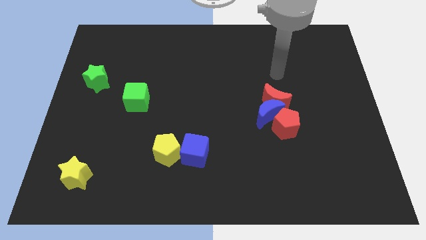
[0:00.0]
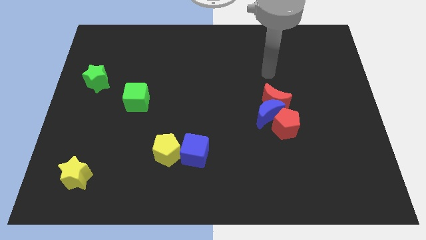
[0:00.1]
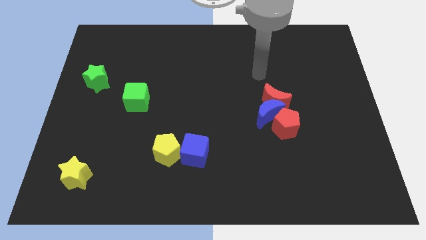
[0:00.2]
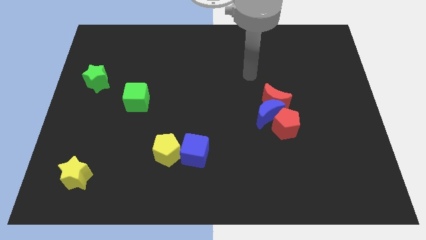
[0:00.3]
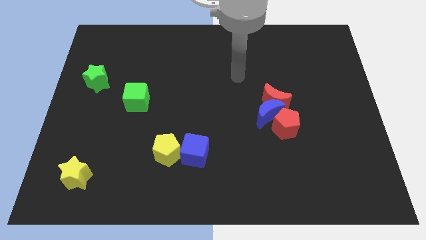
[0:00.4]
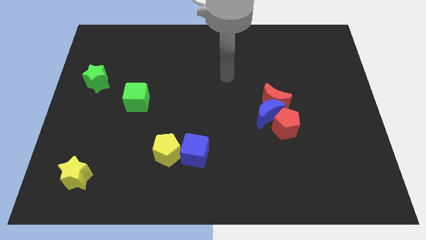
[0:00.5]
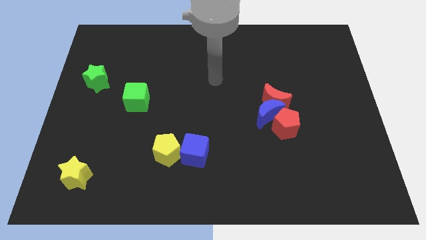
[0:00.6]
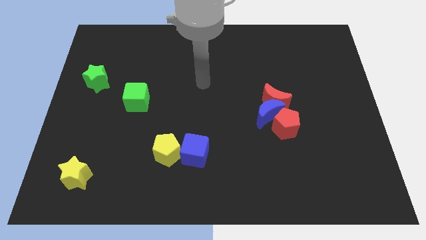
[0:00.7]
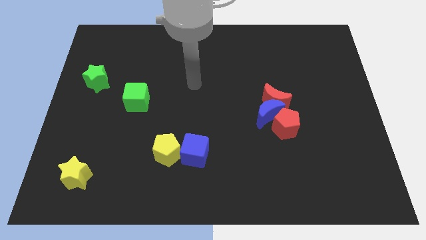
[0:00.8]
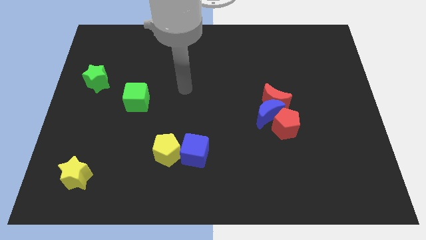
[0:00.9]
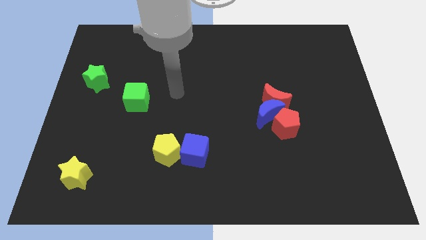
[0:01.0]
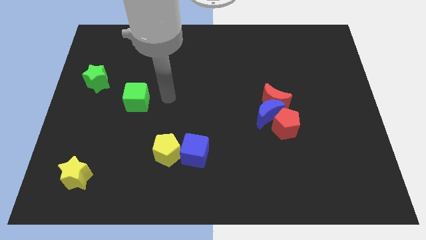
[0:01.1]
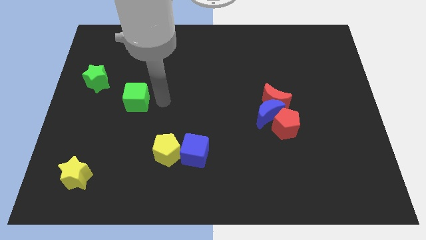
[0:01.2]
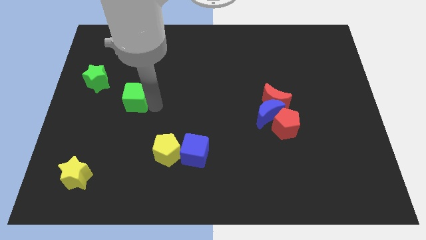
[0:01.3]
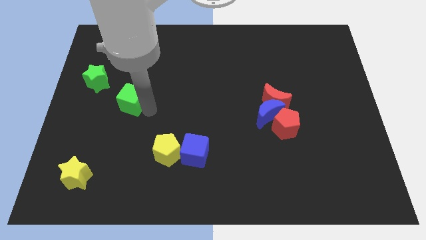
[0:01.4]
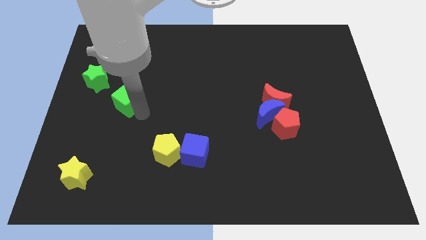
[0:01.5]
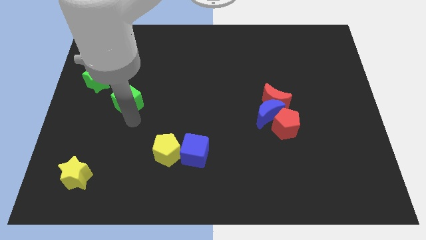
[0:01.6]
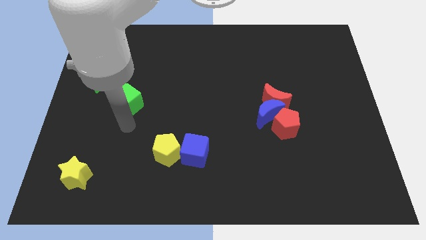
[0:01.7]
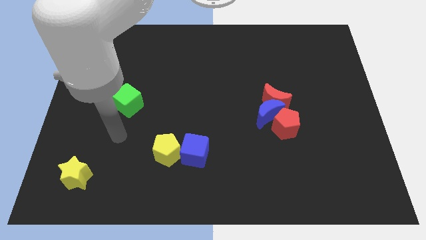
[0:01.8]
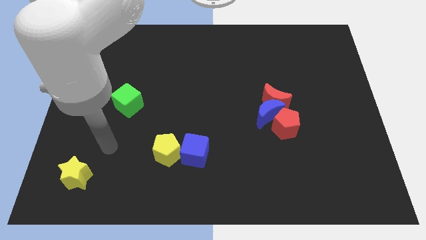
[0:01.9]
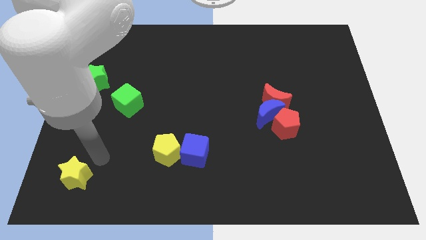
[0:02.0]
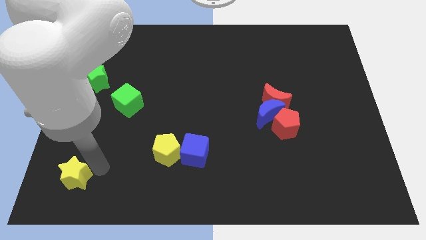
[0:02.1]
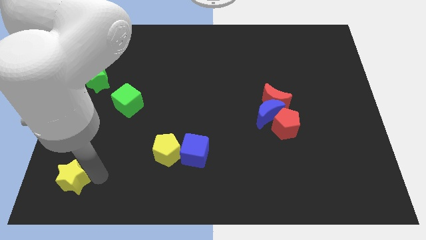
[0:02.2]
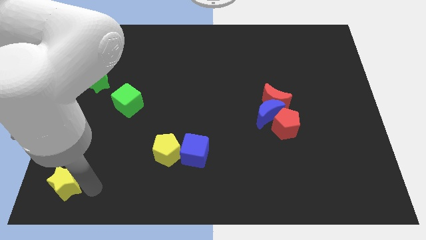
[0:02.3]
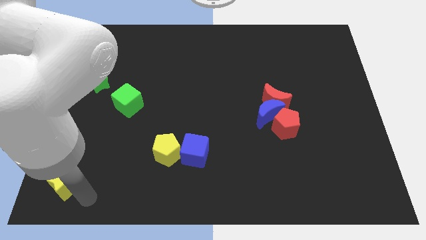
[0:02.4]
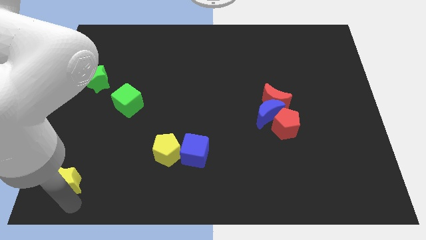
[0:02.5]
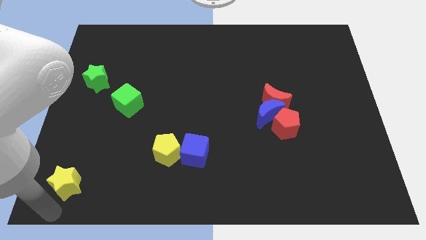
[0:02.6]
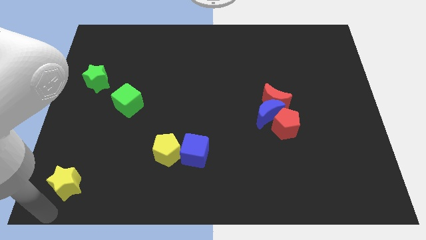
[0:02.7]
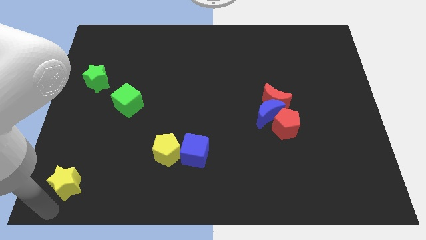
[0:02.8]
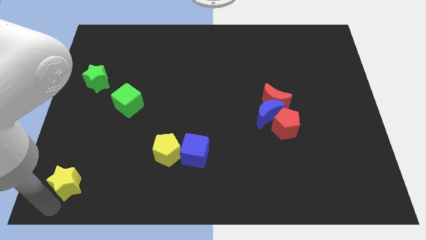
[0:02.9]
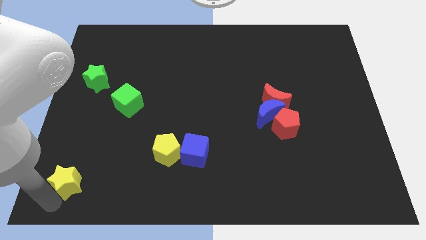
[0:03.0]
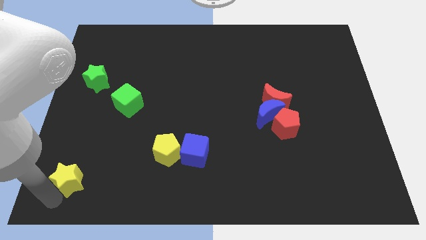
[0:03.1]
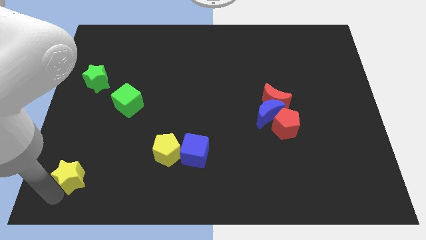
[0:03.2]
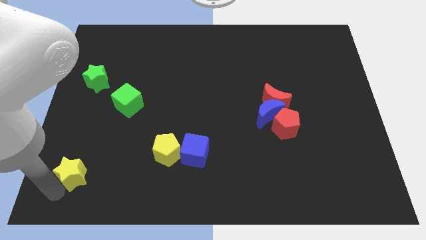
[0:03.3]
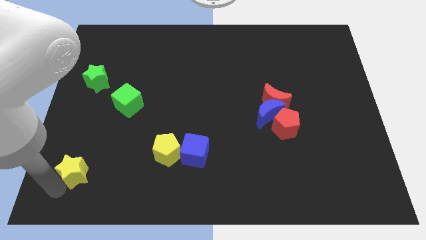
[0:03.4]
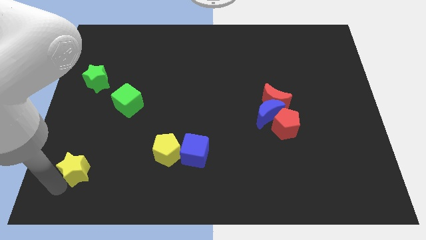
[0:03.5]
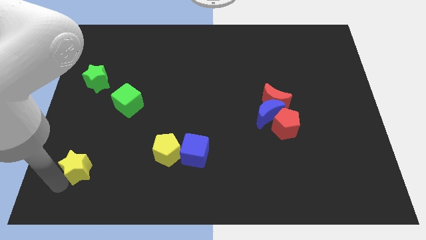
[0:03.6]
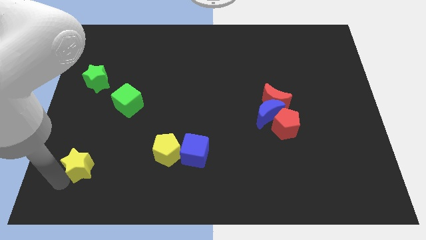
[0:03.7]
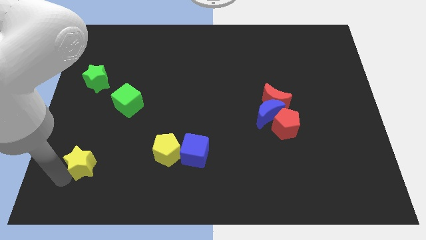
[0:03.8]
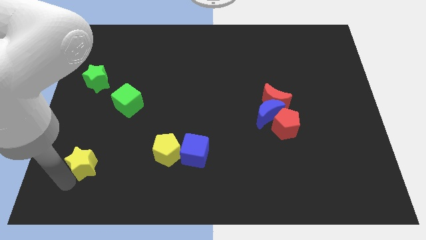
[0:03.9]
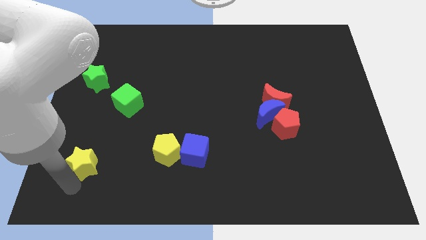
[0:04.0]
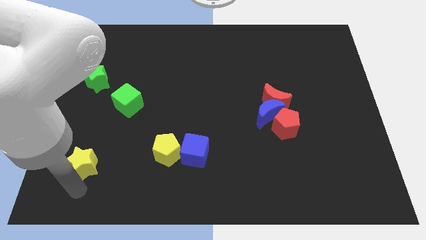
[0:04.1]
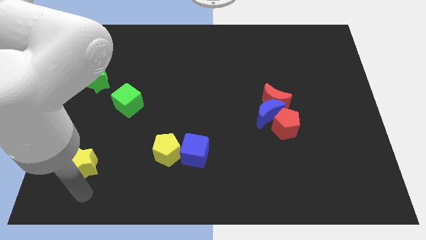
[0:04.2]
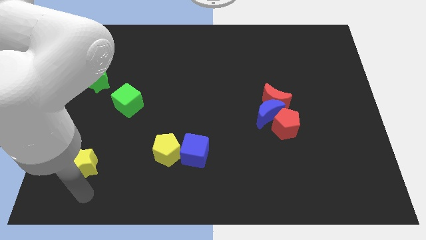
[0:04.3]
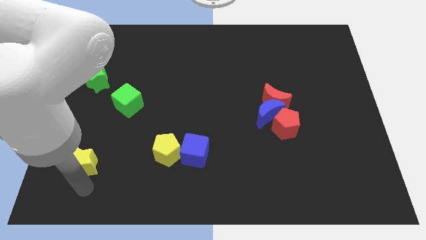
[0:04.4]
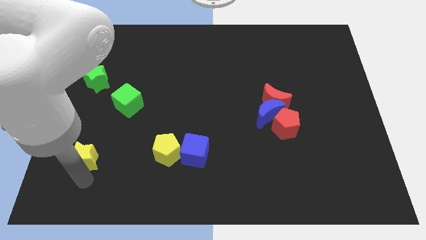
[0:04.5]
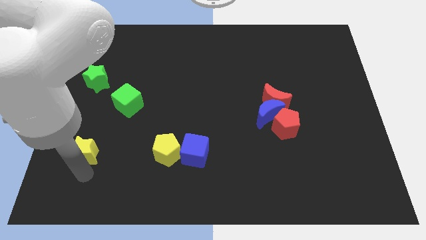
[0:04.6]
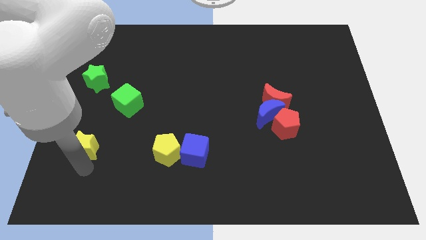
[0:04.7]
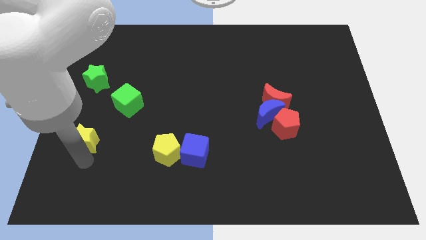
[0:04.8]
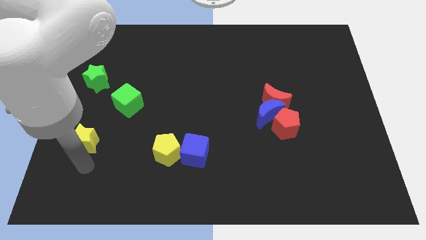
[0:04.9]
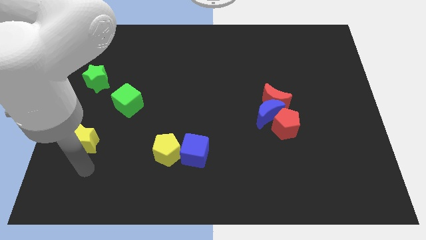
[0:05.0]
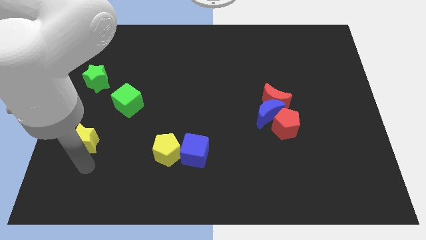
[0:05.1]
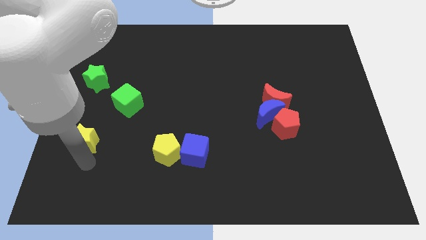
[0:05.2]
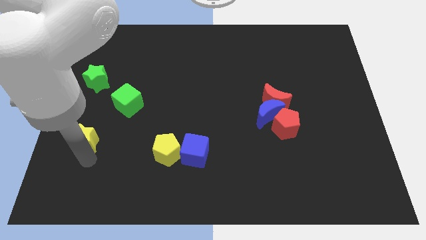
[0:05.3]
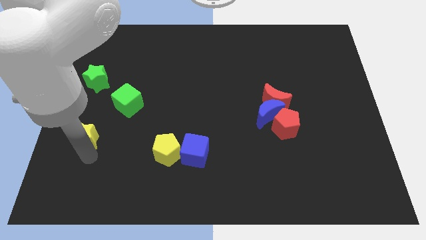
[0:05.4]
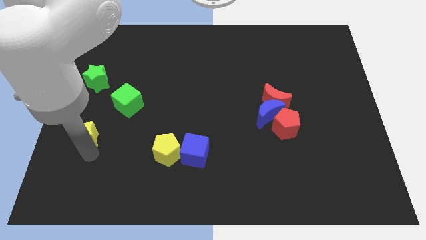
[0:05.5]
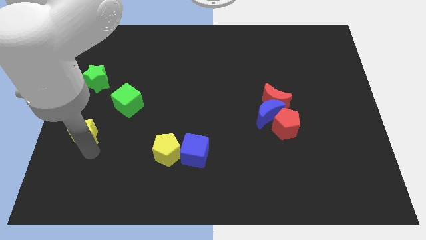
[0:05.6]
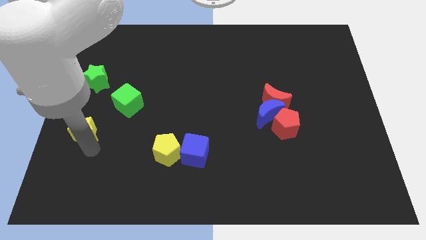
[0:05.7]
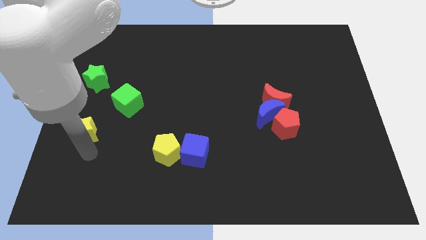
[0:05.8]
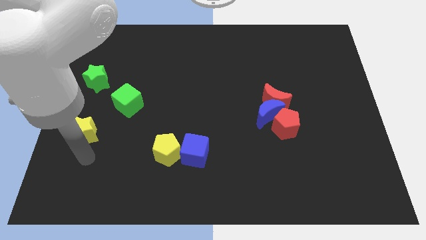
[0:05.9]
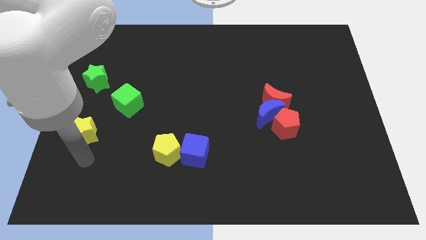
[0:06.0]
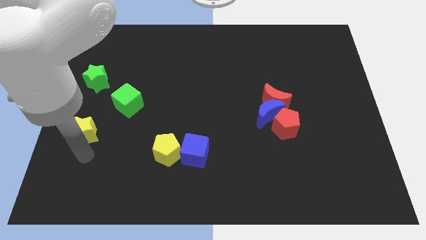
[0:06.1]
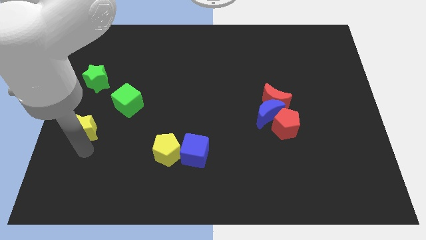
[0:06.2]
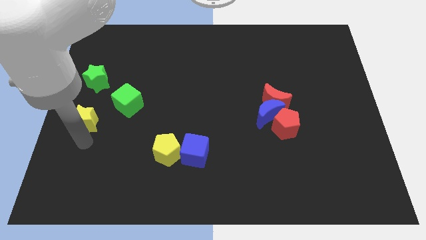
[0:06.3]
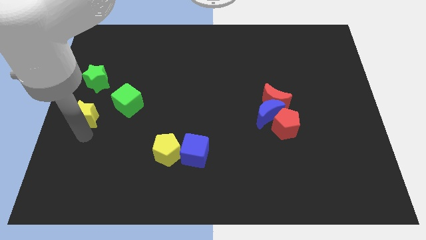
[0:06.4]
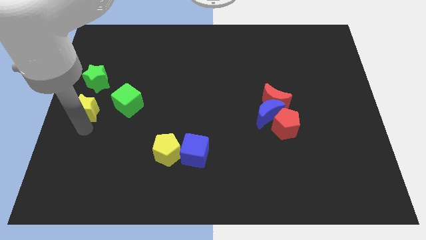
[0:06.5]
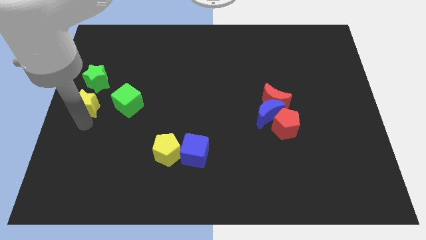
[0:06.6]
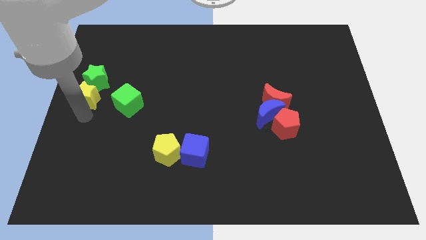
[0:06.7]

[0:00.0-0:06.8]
move the yellow star towards the green star
